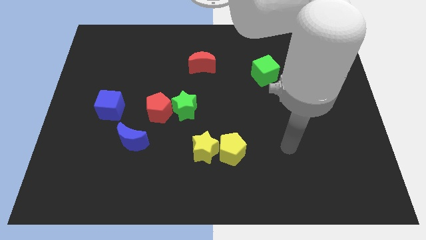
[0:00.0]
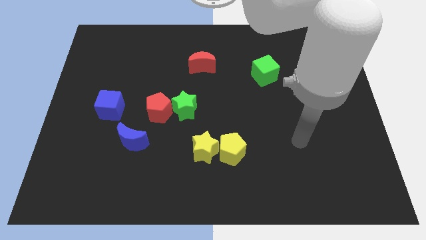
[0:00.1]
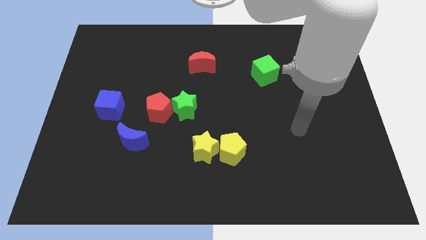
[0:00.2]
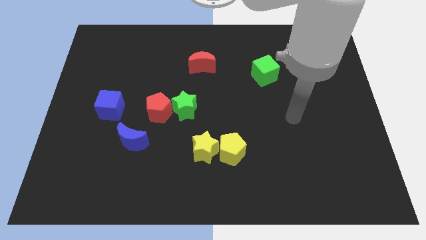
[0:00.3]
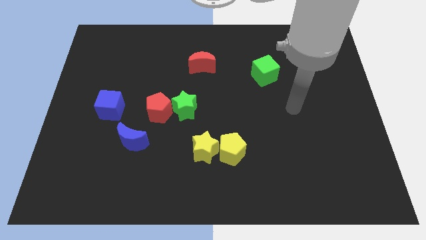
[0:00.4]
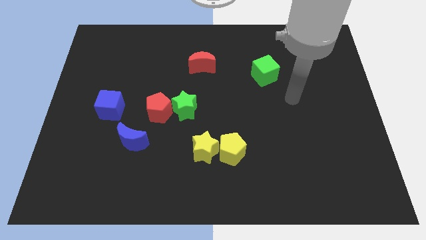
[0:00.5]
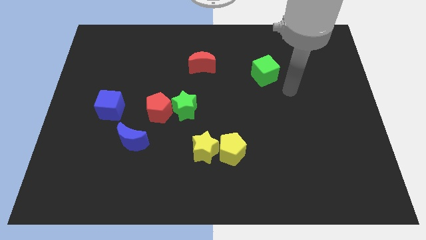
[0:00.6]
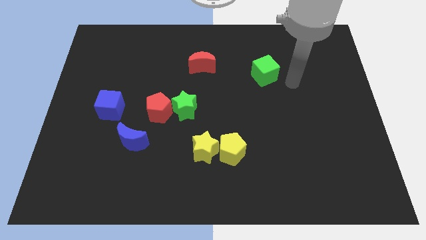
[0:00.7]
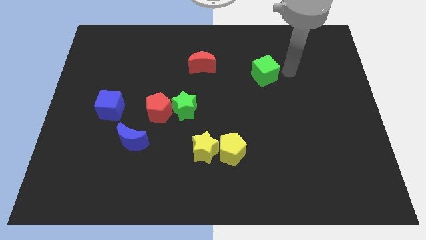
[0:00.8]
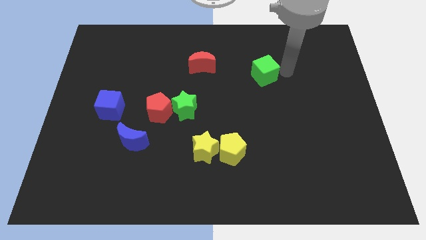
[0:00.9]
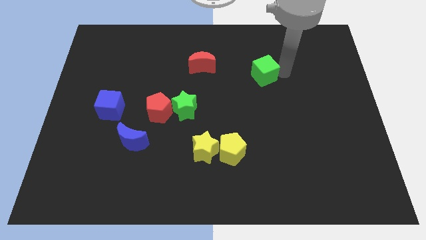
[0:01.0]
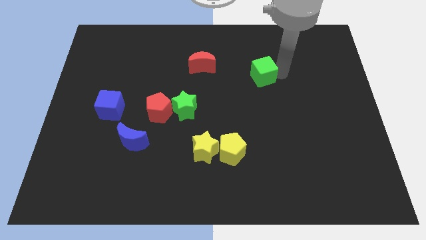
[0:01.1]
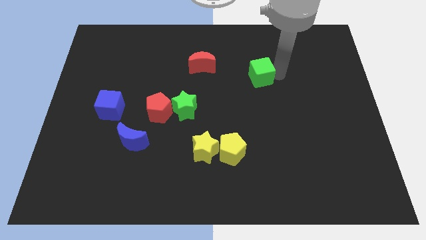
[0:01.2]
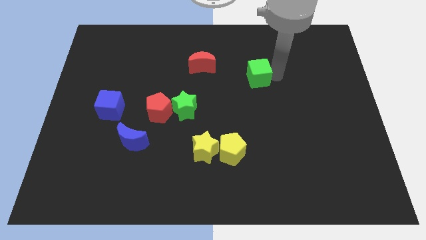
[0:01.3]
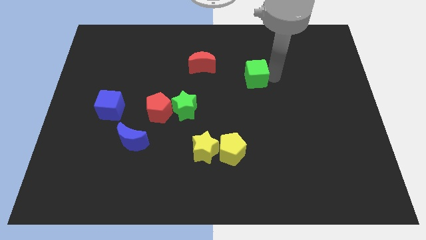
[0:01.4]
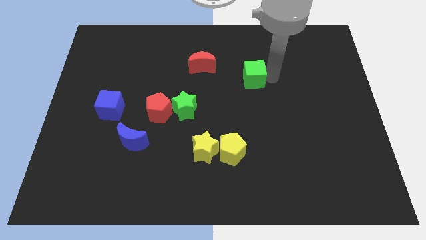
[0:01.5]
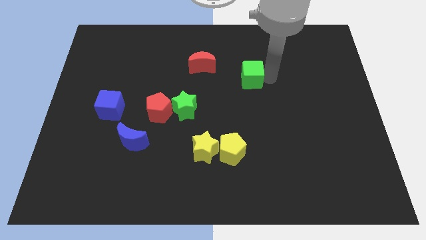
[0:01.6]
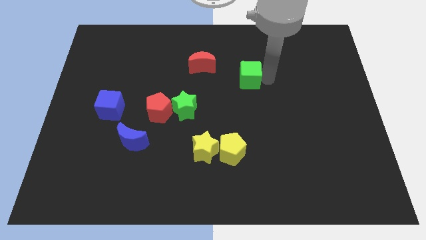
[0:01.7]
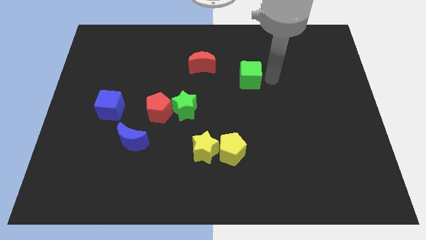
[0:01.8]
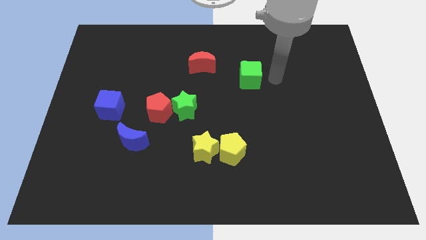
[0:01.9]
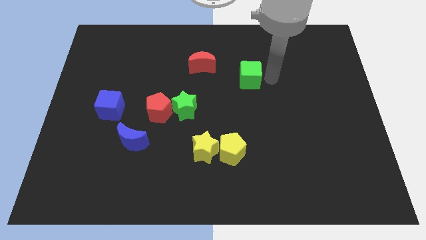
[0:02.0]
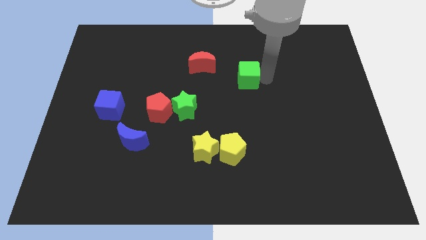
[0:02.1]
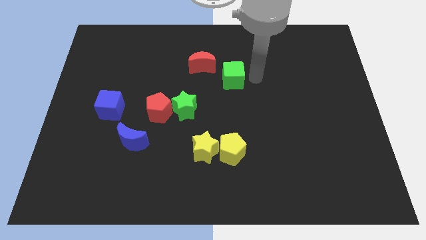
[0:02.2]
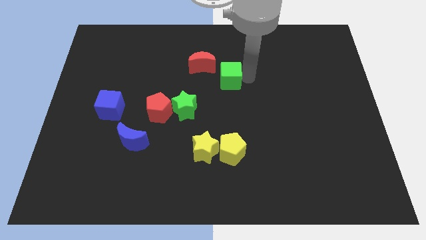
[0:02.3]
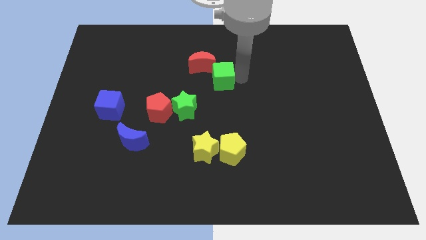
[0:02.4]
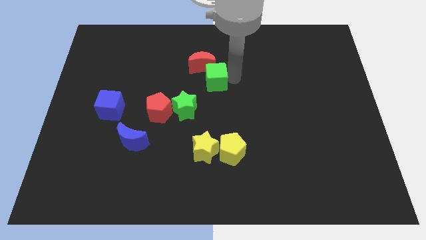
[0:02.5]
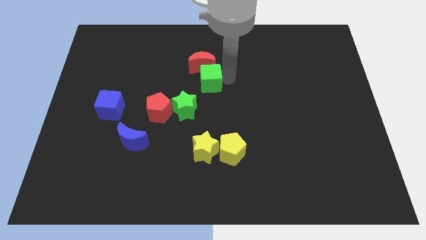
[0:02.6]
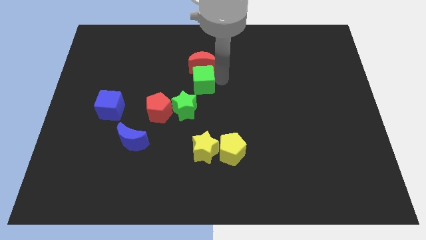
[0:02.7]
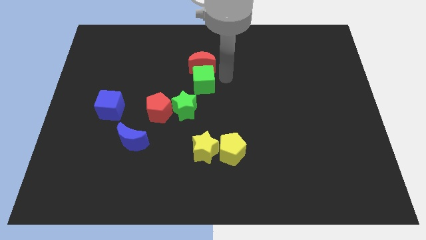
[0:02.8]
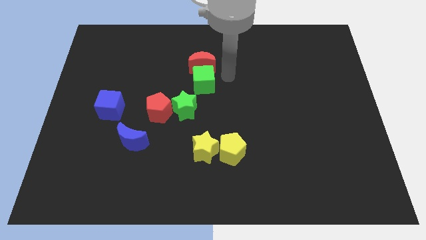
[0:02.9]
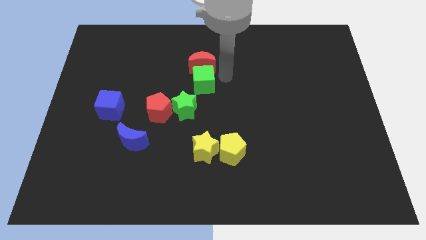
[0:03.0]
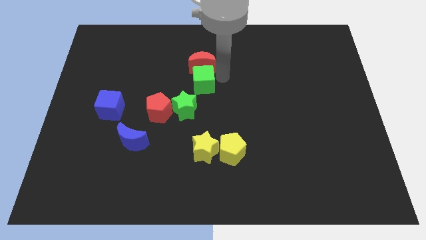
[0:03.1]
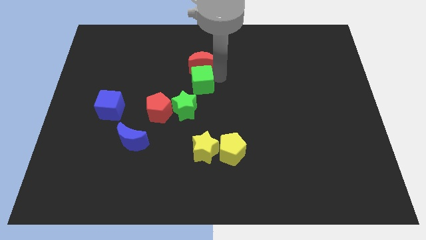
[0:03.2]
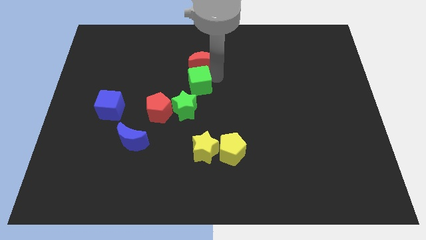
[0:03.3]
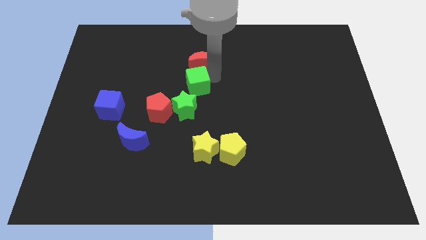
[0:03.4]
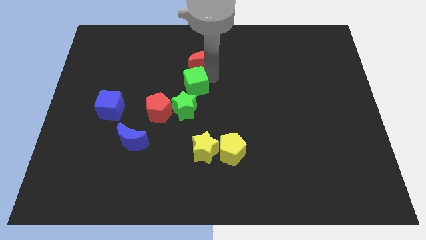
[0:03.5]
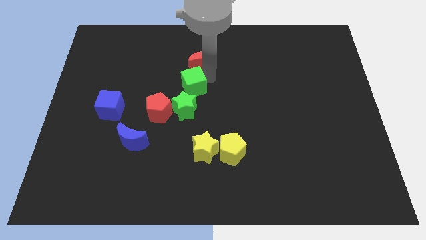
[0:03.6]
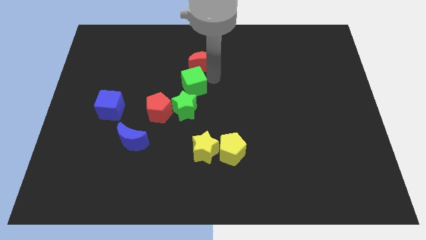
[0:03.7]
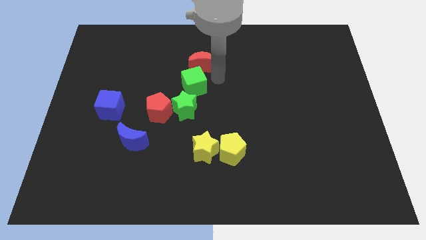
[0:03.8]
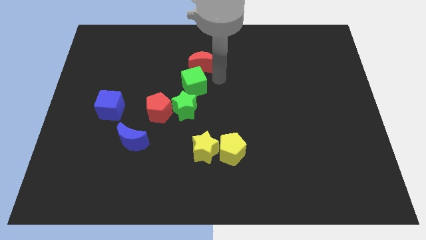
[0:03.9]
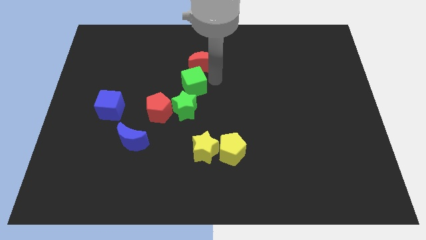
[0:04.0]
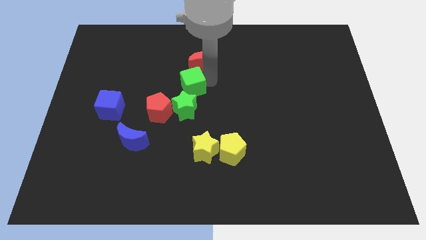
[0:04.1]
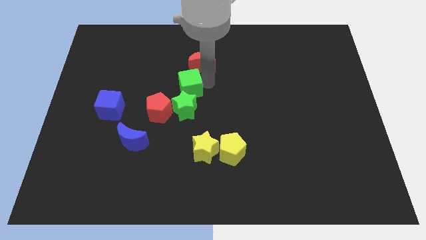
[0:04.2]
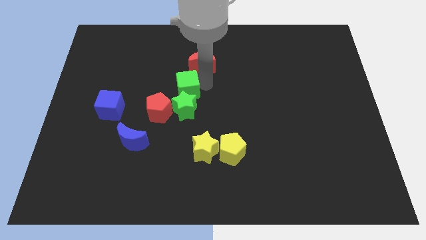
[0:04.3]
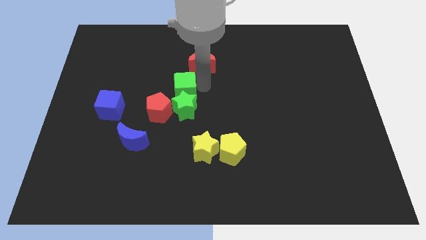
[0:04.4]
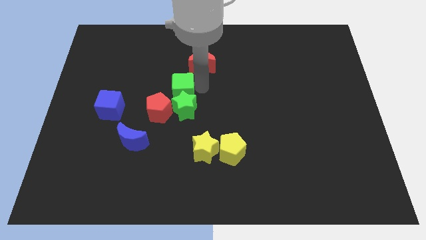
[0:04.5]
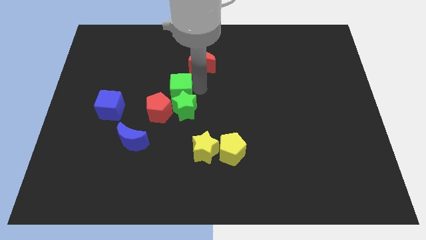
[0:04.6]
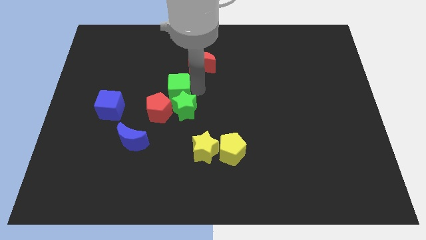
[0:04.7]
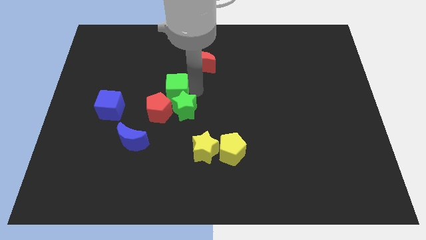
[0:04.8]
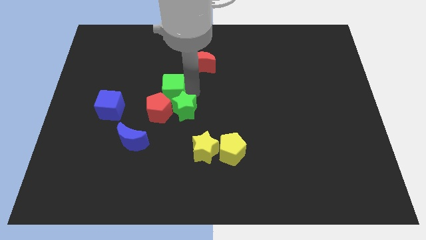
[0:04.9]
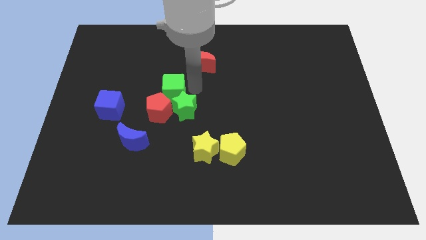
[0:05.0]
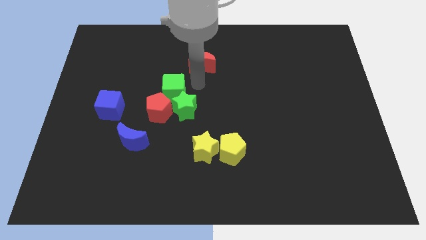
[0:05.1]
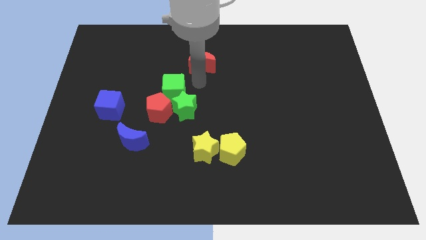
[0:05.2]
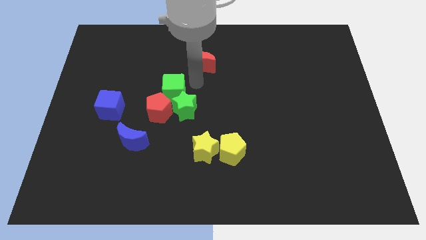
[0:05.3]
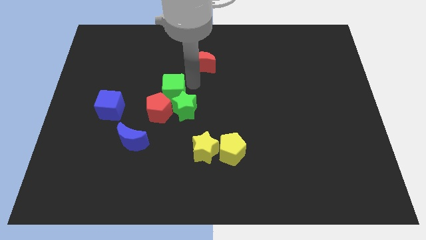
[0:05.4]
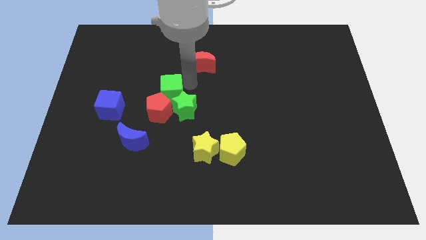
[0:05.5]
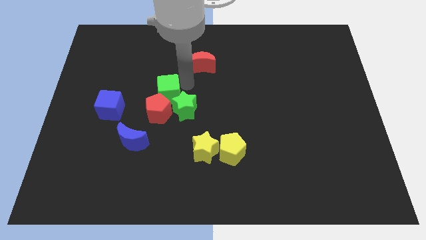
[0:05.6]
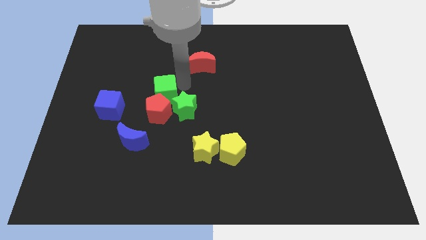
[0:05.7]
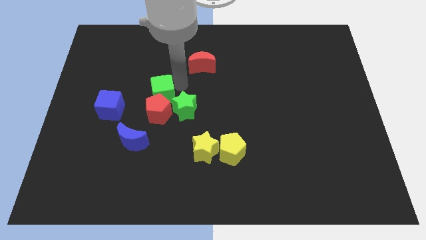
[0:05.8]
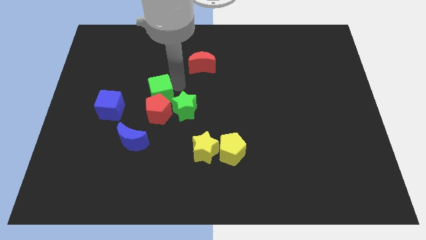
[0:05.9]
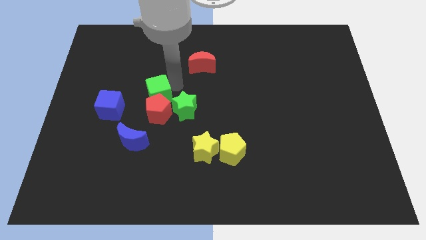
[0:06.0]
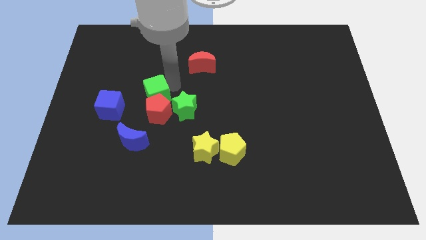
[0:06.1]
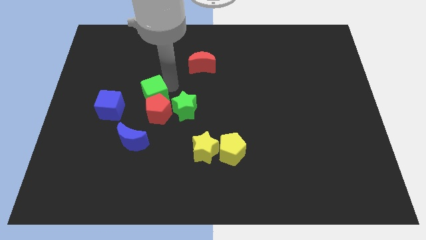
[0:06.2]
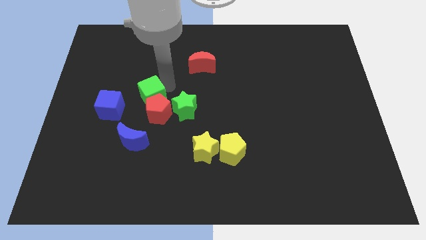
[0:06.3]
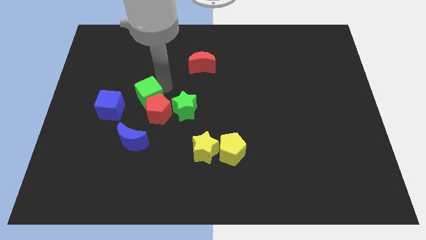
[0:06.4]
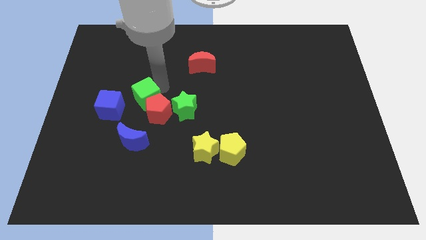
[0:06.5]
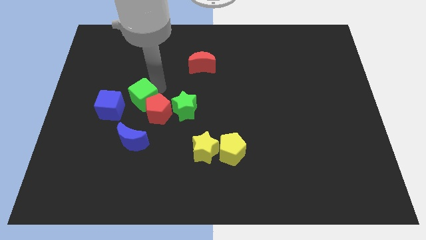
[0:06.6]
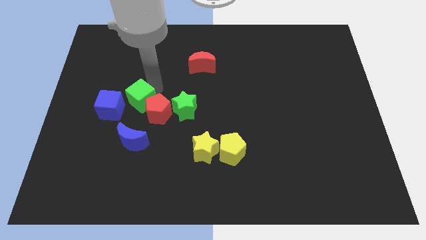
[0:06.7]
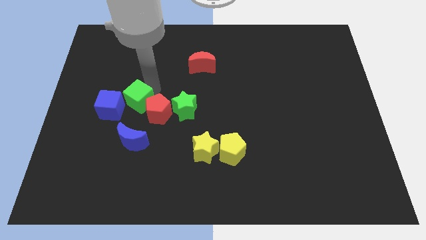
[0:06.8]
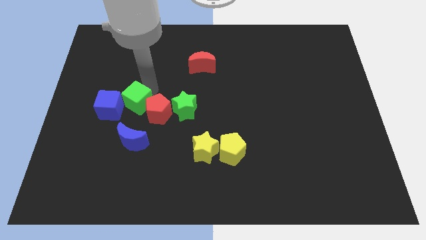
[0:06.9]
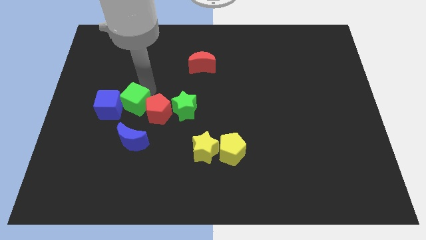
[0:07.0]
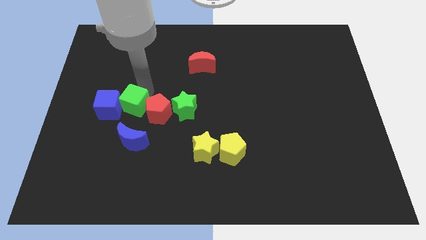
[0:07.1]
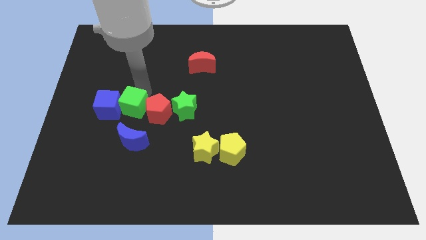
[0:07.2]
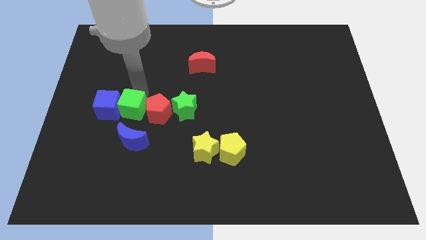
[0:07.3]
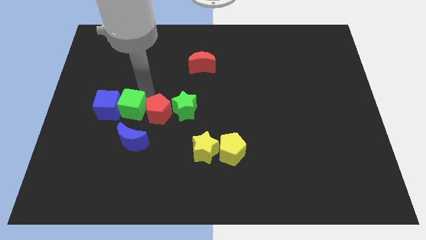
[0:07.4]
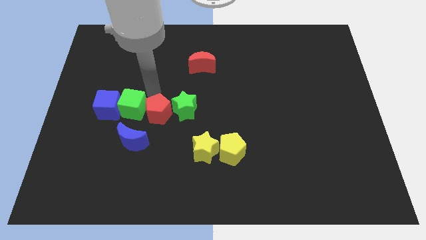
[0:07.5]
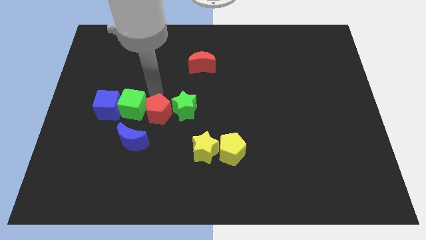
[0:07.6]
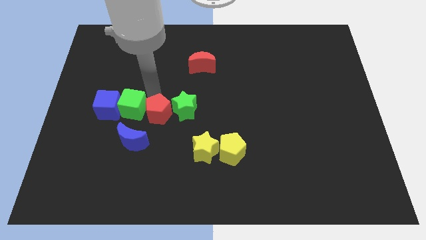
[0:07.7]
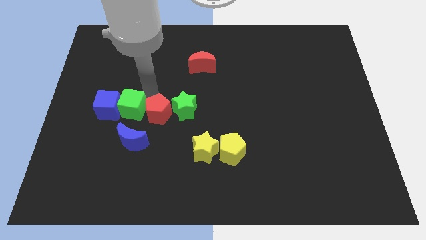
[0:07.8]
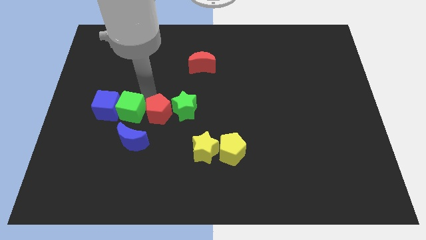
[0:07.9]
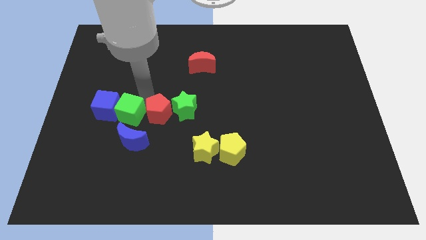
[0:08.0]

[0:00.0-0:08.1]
put the green cube to the top left side of the blue moon
